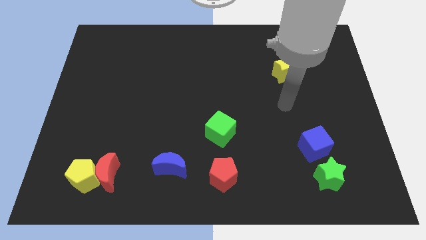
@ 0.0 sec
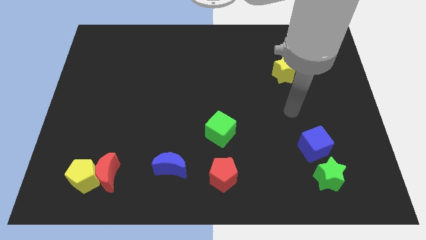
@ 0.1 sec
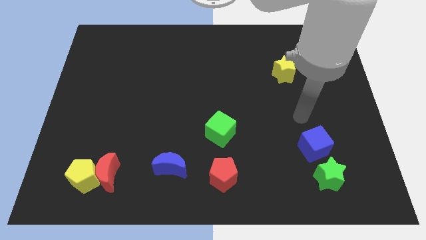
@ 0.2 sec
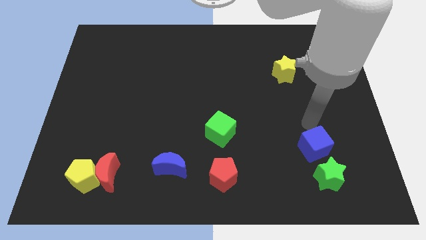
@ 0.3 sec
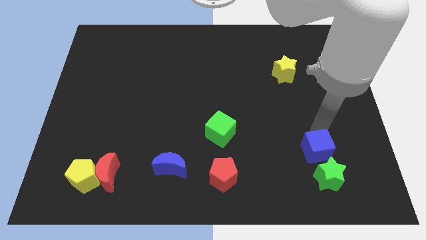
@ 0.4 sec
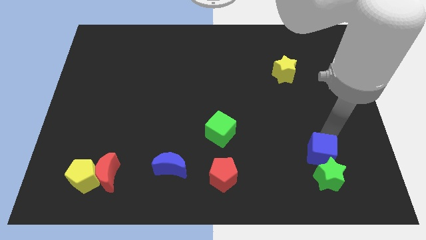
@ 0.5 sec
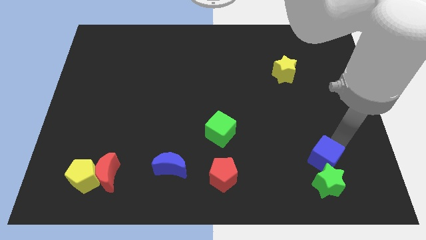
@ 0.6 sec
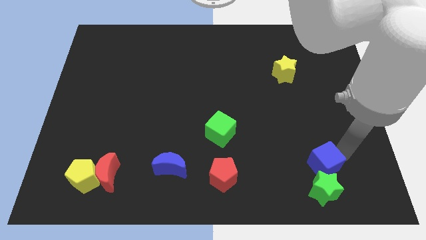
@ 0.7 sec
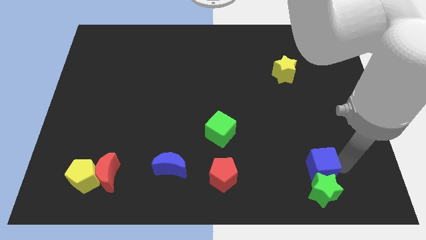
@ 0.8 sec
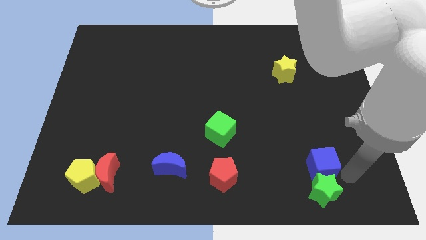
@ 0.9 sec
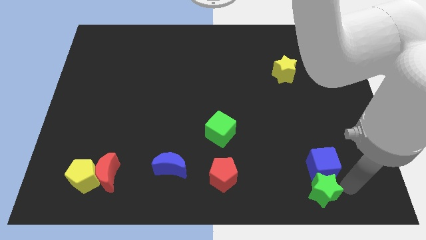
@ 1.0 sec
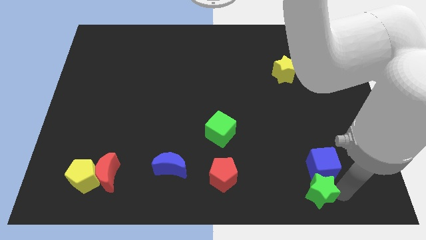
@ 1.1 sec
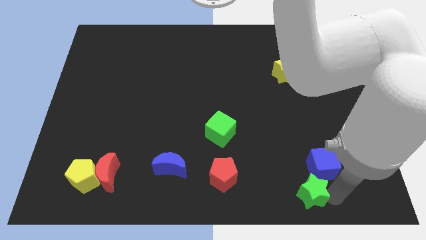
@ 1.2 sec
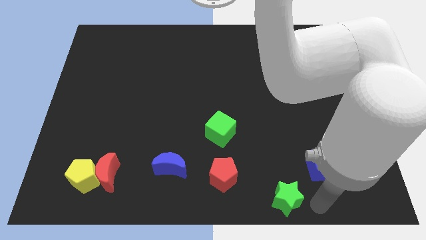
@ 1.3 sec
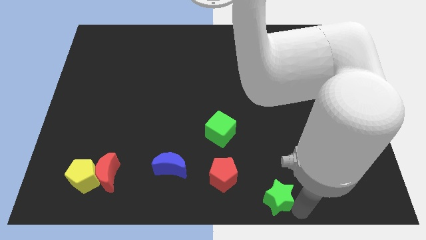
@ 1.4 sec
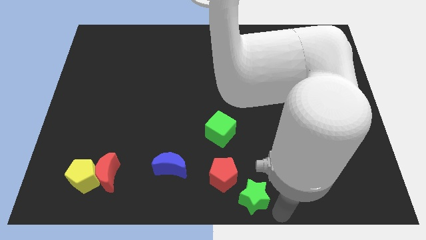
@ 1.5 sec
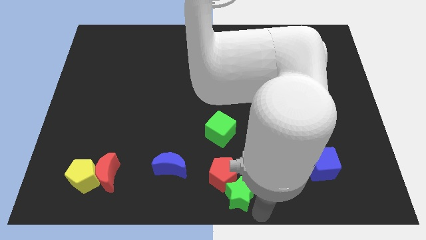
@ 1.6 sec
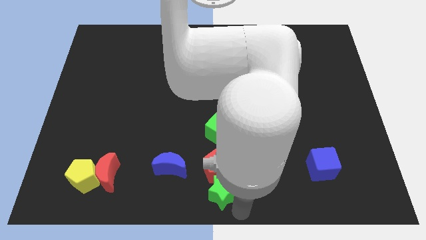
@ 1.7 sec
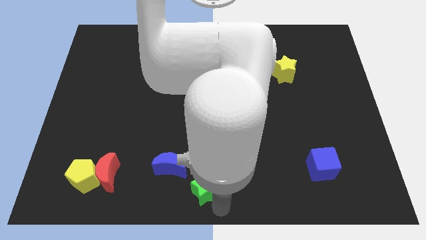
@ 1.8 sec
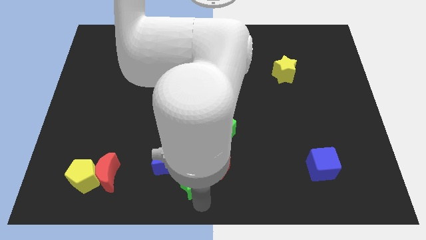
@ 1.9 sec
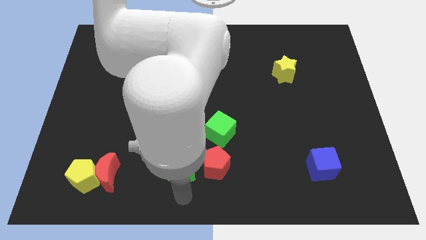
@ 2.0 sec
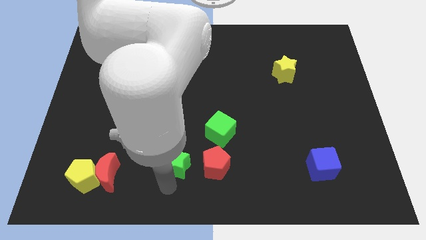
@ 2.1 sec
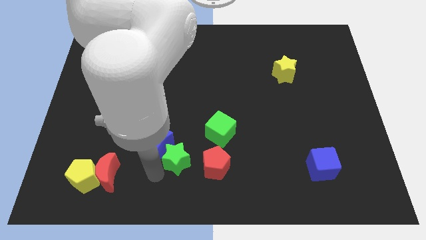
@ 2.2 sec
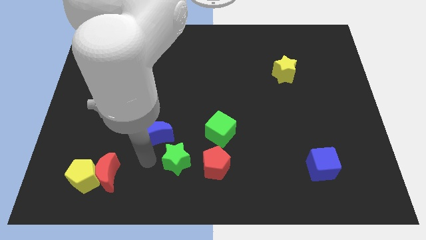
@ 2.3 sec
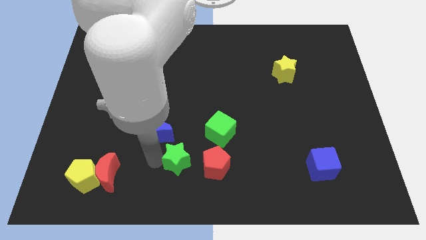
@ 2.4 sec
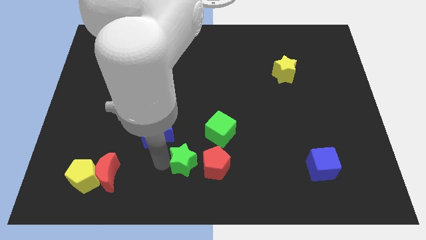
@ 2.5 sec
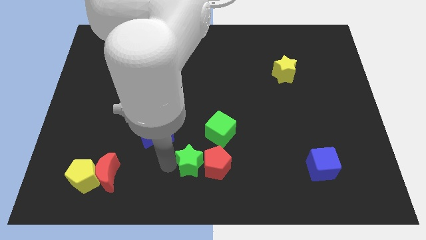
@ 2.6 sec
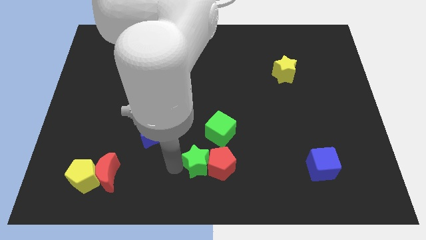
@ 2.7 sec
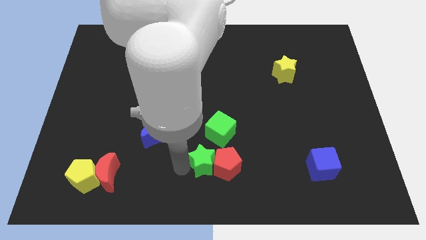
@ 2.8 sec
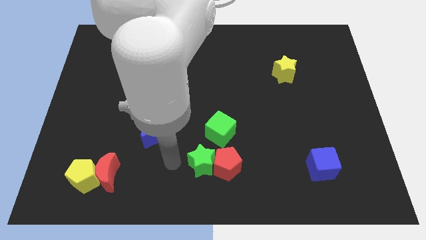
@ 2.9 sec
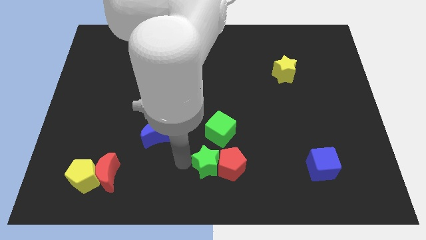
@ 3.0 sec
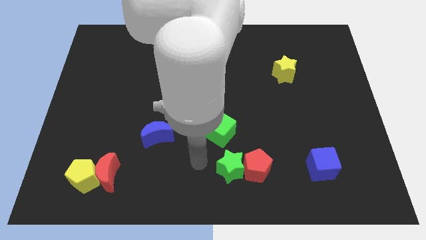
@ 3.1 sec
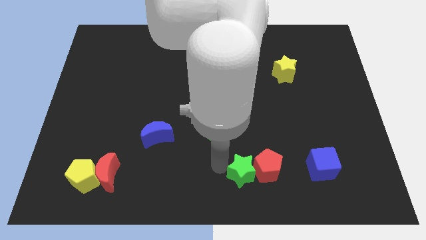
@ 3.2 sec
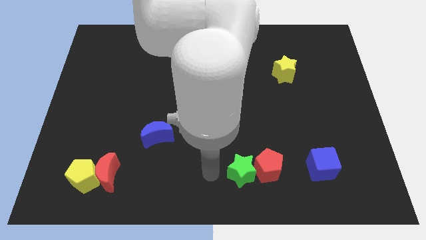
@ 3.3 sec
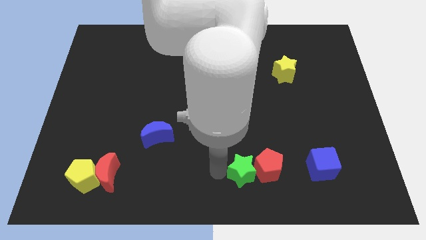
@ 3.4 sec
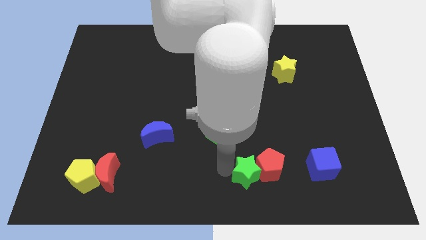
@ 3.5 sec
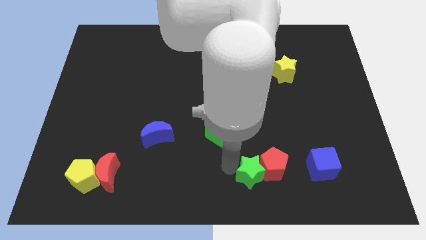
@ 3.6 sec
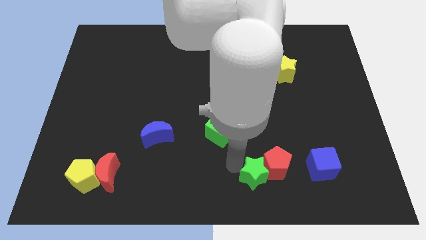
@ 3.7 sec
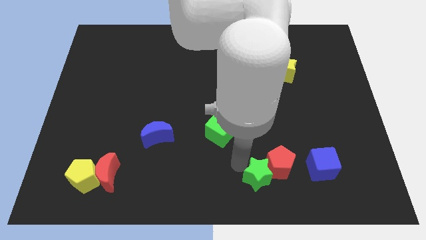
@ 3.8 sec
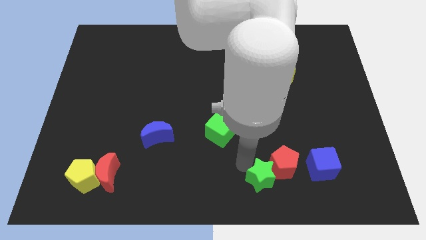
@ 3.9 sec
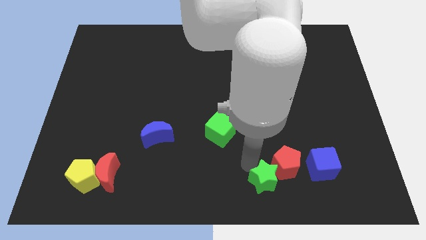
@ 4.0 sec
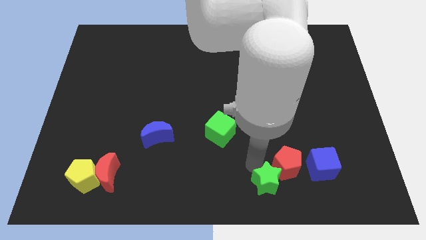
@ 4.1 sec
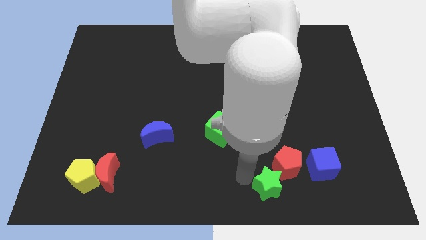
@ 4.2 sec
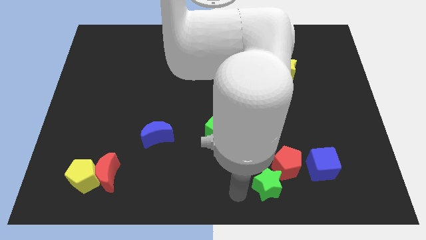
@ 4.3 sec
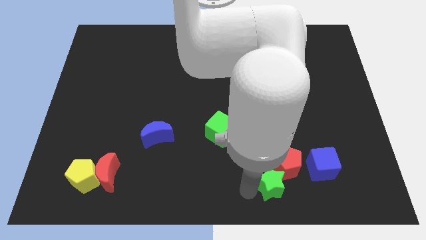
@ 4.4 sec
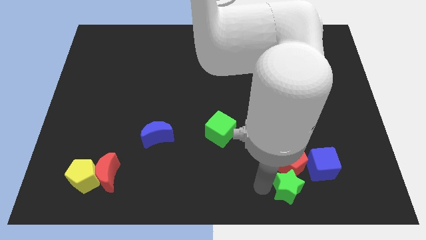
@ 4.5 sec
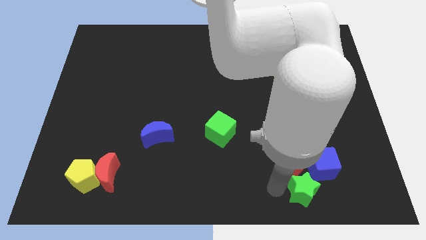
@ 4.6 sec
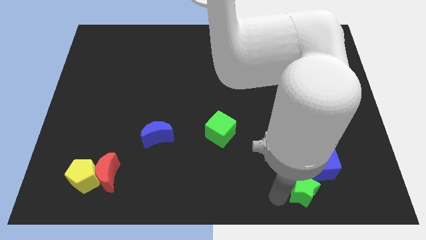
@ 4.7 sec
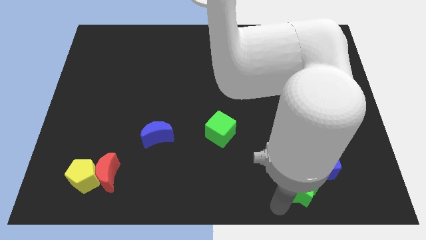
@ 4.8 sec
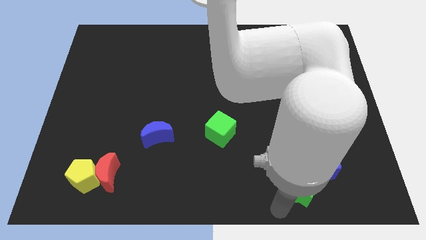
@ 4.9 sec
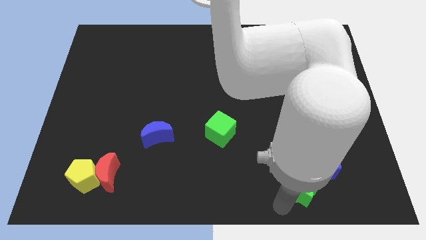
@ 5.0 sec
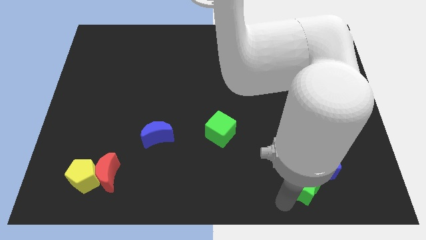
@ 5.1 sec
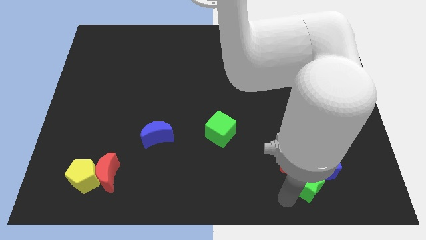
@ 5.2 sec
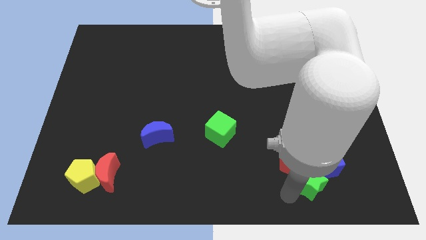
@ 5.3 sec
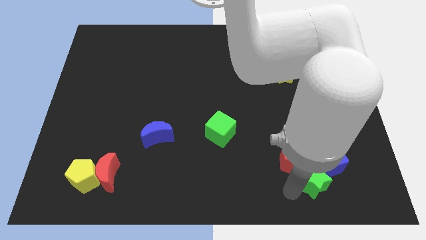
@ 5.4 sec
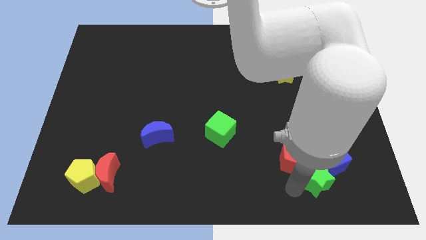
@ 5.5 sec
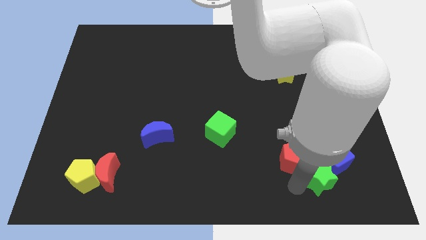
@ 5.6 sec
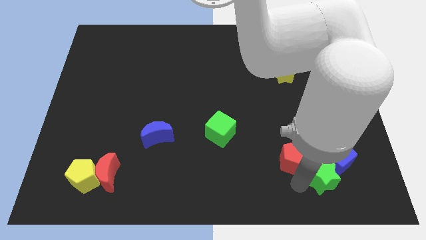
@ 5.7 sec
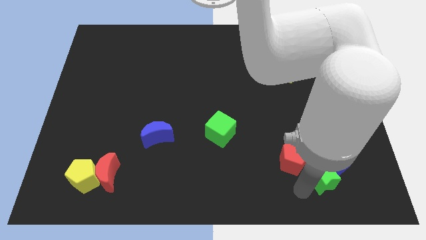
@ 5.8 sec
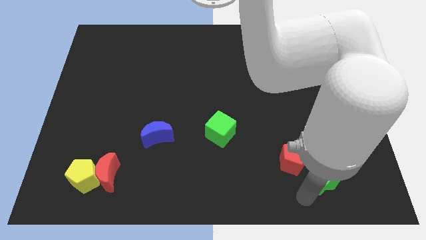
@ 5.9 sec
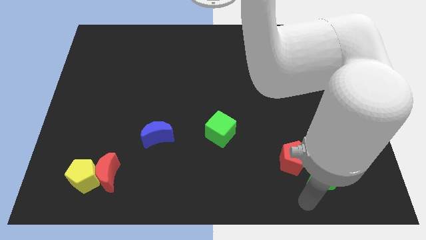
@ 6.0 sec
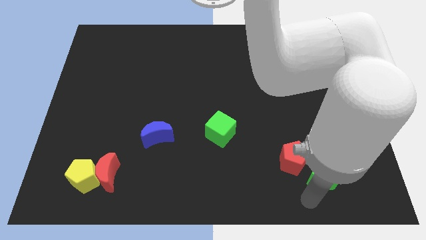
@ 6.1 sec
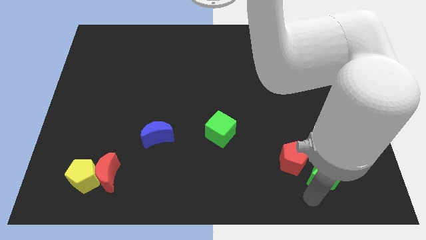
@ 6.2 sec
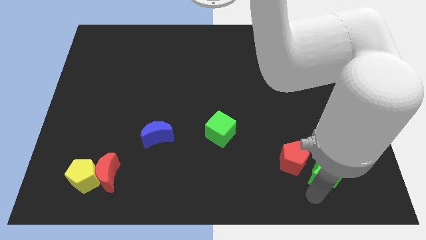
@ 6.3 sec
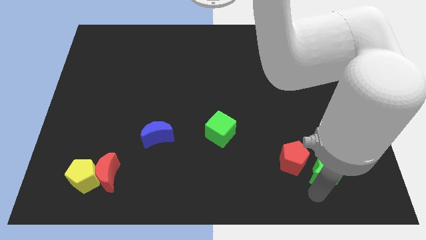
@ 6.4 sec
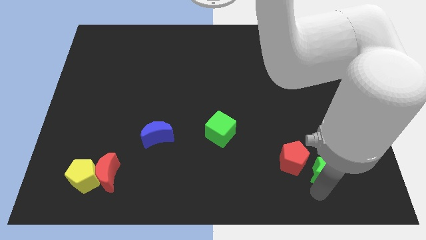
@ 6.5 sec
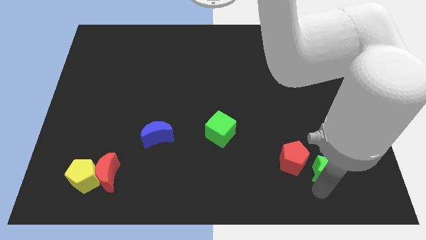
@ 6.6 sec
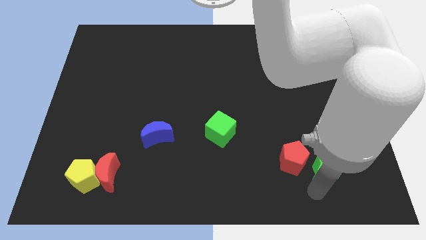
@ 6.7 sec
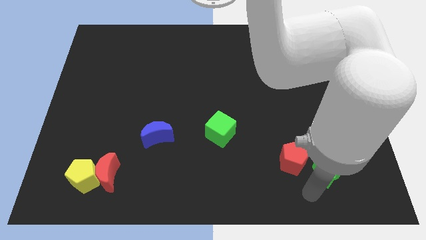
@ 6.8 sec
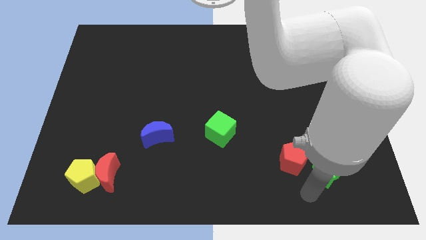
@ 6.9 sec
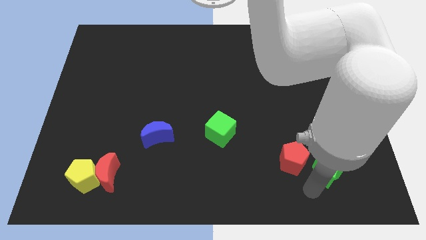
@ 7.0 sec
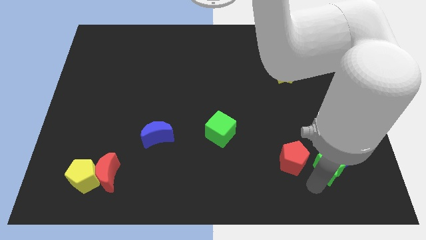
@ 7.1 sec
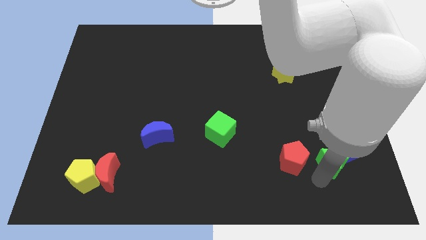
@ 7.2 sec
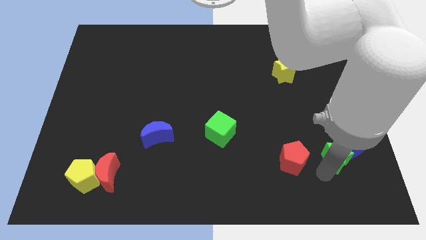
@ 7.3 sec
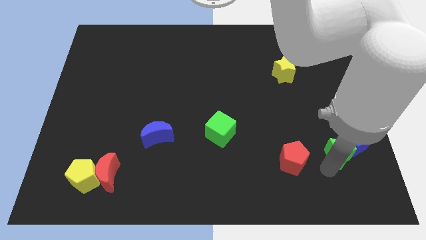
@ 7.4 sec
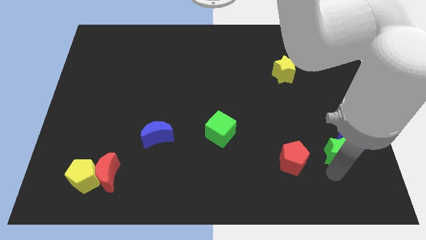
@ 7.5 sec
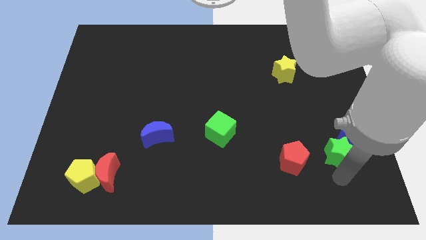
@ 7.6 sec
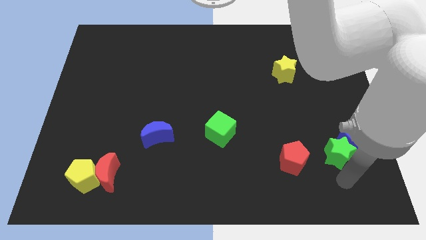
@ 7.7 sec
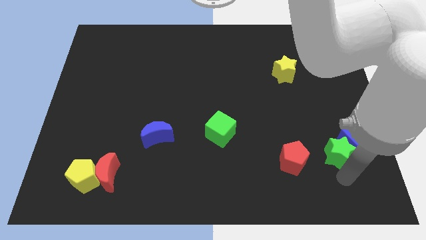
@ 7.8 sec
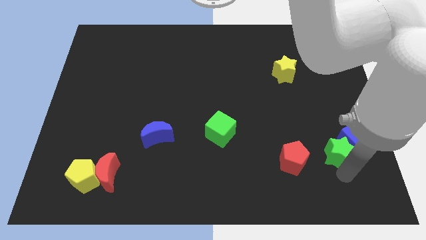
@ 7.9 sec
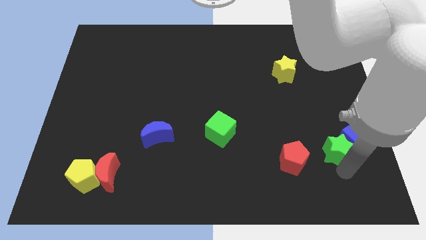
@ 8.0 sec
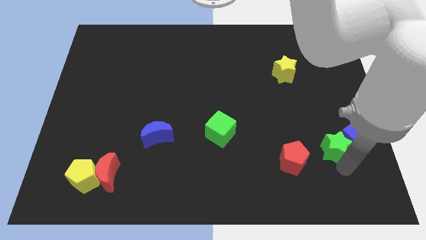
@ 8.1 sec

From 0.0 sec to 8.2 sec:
slightly move the green star up

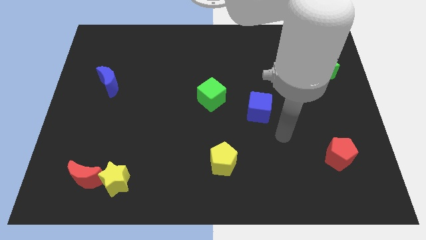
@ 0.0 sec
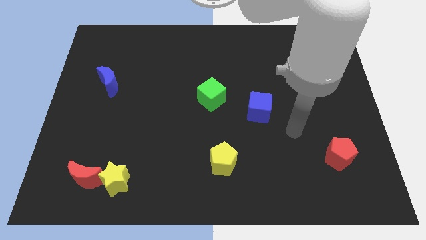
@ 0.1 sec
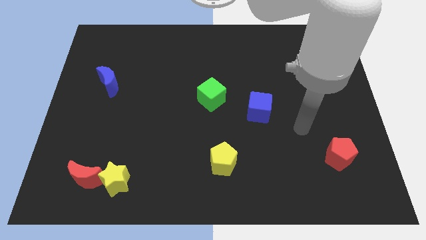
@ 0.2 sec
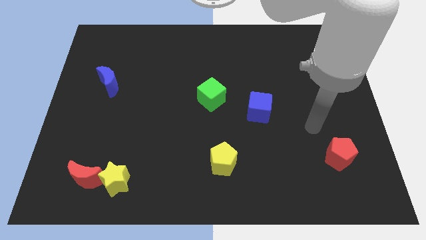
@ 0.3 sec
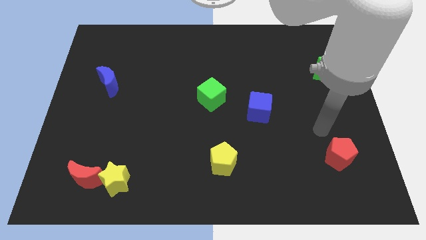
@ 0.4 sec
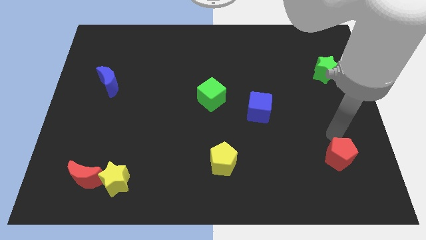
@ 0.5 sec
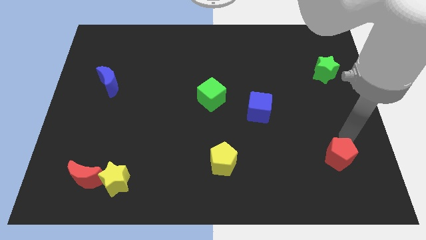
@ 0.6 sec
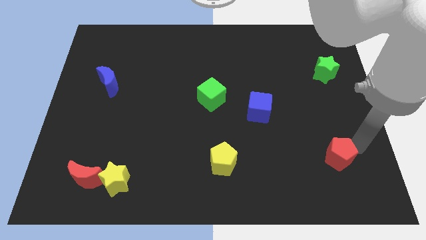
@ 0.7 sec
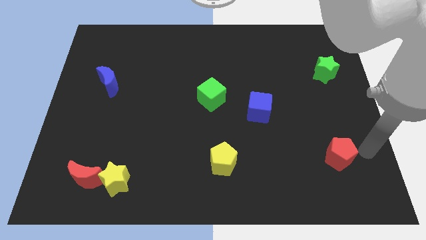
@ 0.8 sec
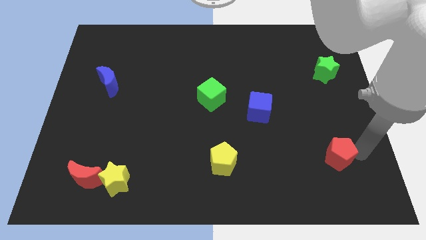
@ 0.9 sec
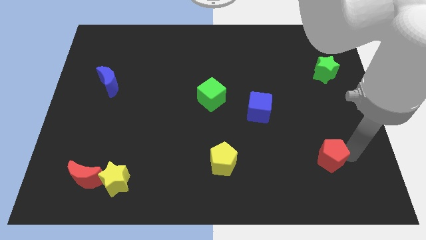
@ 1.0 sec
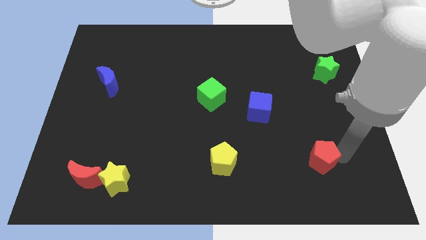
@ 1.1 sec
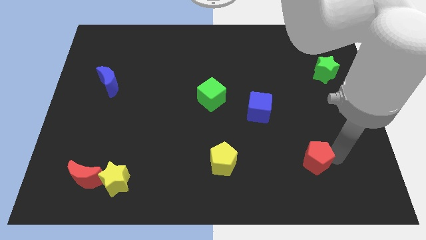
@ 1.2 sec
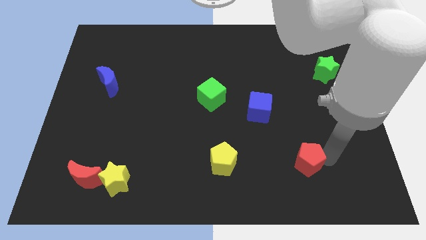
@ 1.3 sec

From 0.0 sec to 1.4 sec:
move the red pentagon a bit to the left
